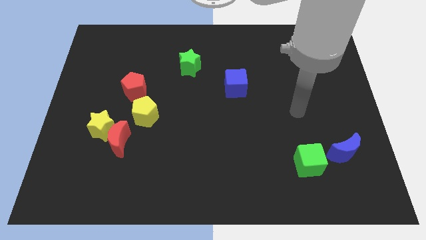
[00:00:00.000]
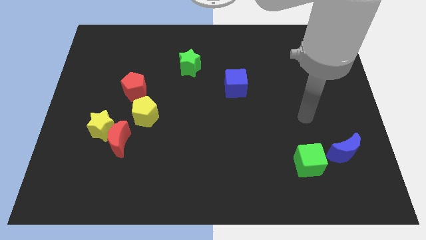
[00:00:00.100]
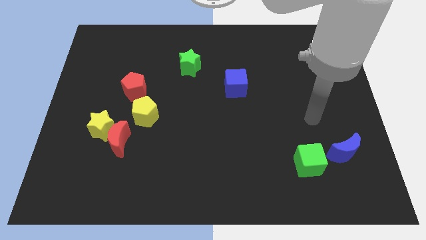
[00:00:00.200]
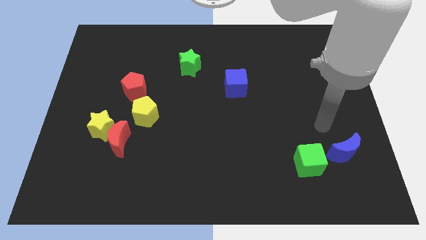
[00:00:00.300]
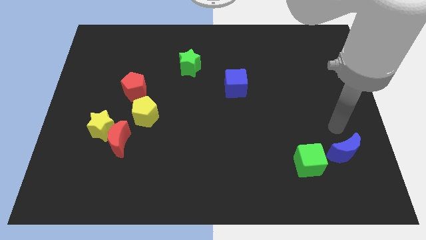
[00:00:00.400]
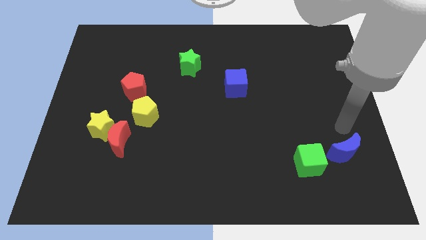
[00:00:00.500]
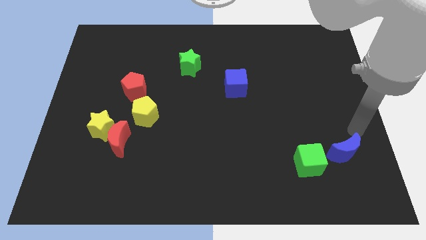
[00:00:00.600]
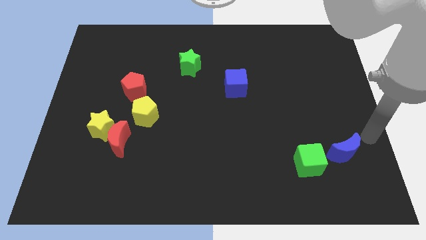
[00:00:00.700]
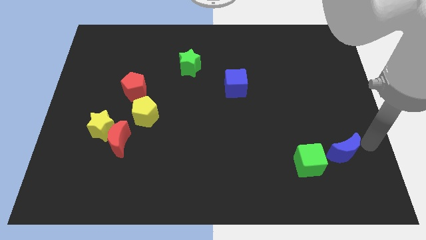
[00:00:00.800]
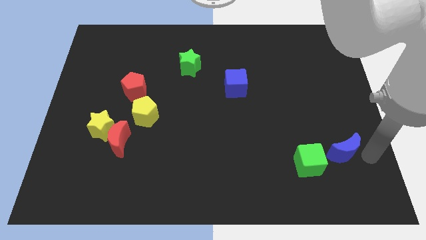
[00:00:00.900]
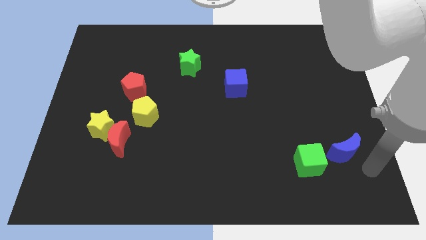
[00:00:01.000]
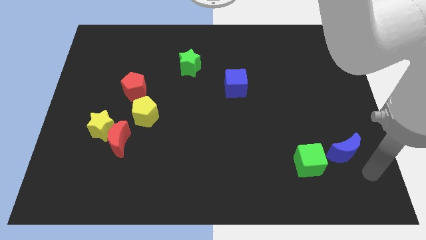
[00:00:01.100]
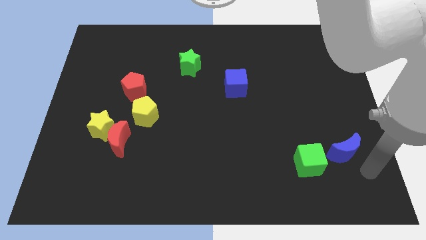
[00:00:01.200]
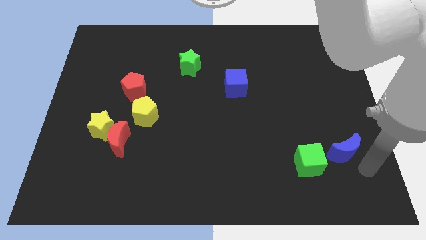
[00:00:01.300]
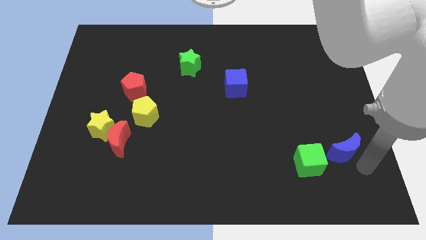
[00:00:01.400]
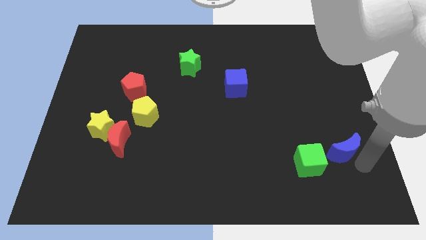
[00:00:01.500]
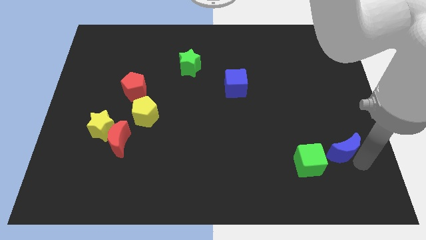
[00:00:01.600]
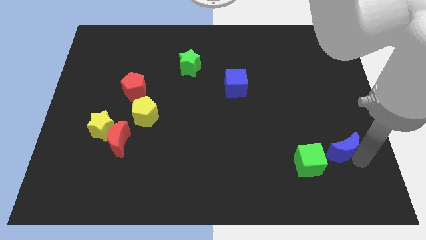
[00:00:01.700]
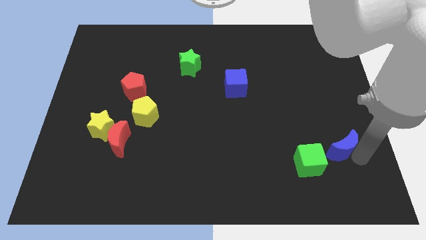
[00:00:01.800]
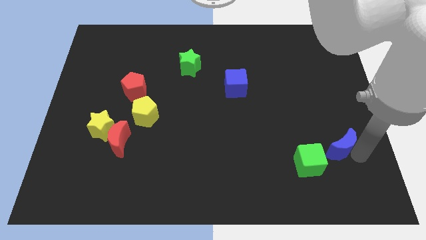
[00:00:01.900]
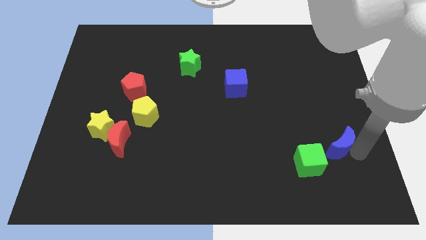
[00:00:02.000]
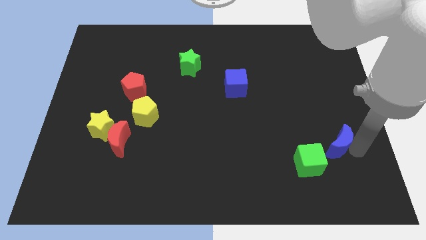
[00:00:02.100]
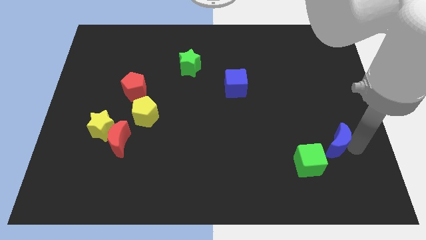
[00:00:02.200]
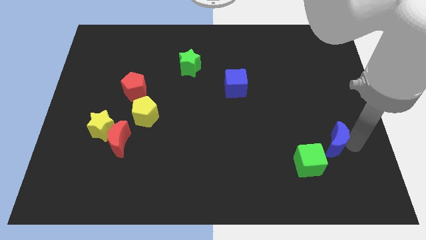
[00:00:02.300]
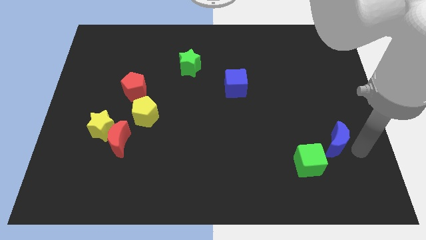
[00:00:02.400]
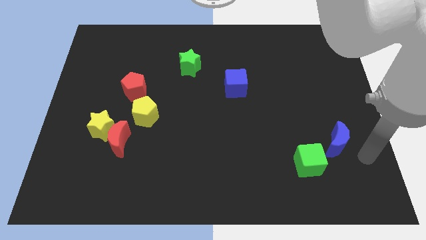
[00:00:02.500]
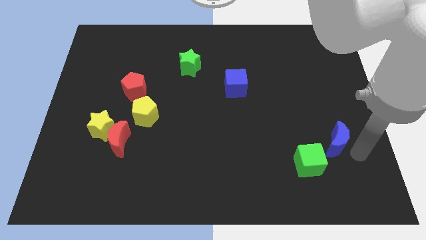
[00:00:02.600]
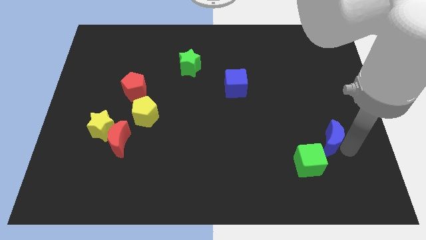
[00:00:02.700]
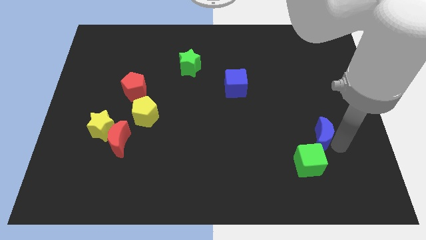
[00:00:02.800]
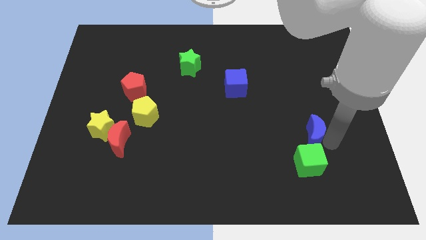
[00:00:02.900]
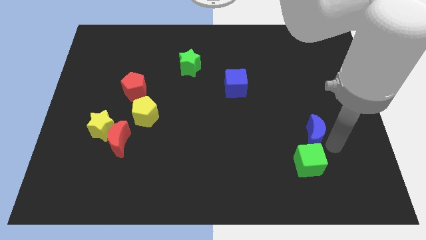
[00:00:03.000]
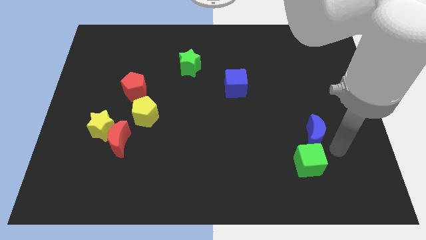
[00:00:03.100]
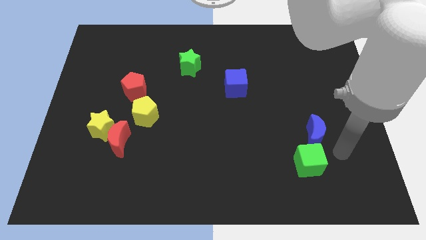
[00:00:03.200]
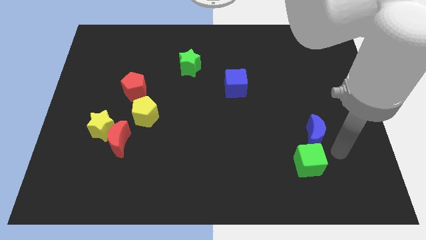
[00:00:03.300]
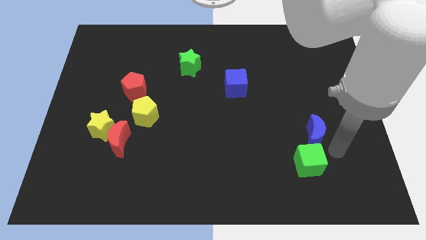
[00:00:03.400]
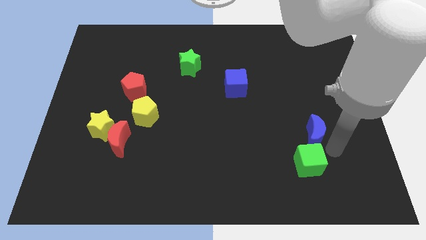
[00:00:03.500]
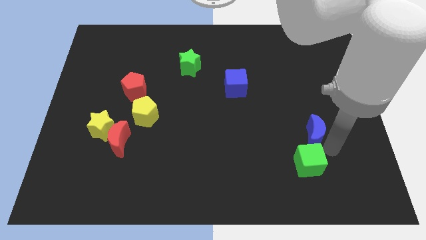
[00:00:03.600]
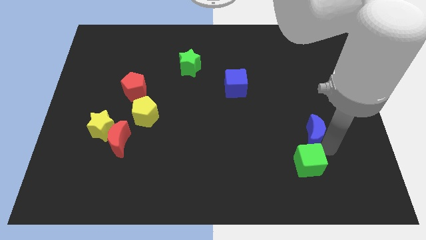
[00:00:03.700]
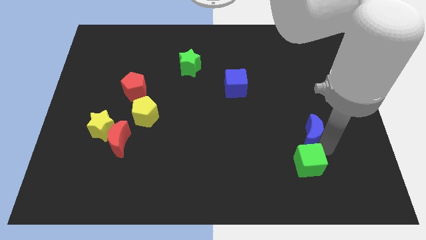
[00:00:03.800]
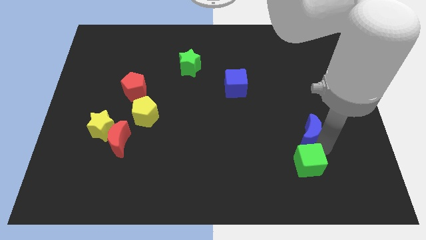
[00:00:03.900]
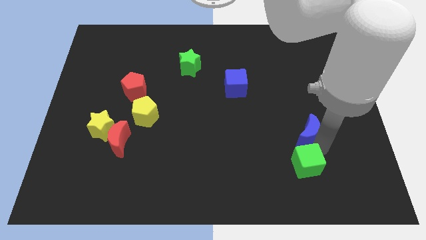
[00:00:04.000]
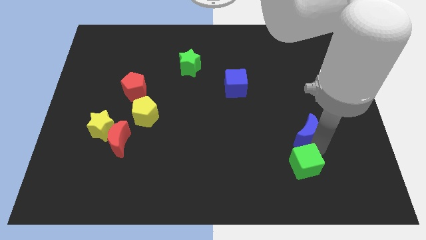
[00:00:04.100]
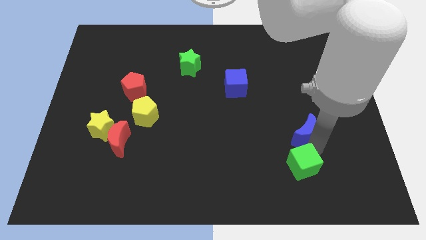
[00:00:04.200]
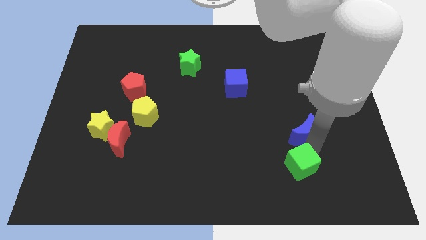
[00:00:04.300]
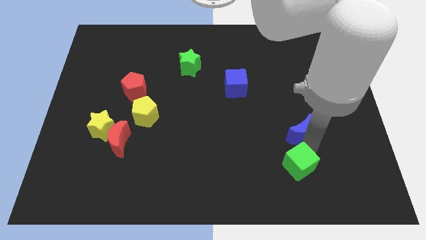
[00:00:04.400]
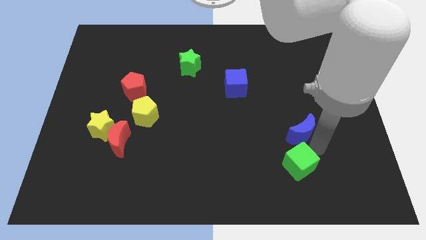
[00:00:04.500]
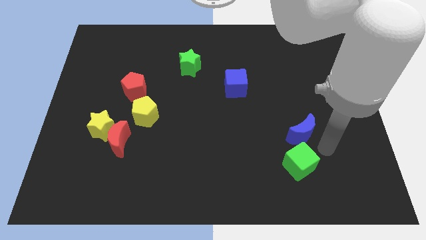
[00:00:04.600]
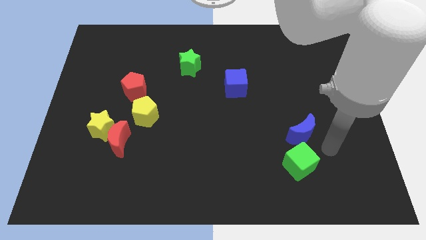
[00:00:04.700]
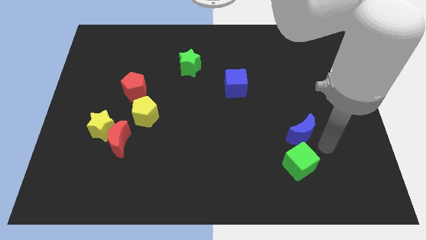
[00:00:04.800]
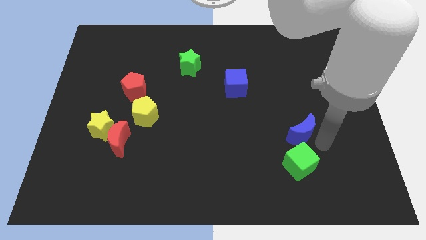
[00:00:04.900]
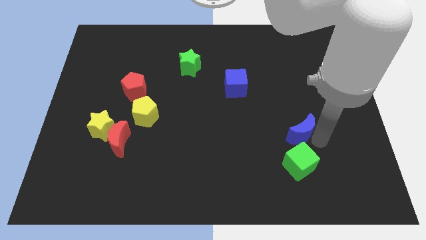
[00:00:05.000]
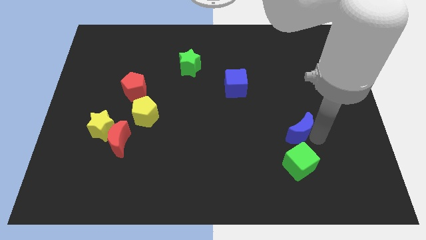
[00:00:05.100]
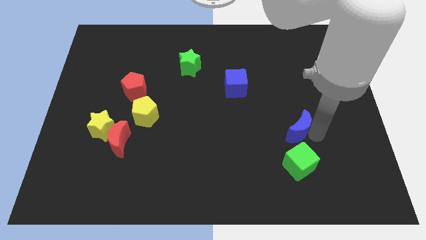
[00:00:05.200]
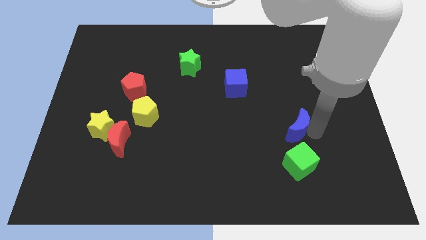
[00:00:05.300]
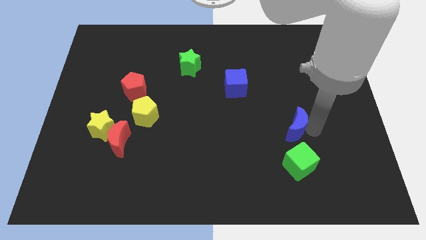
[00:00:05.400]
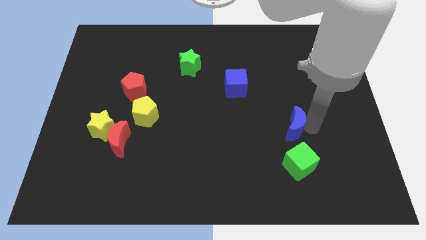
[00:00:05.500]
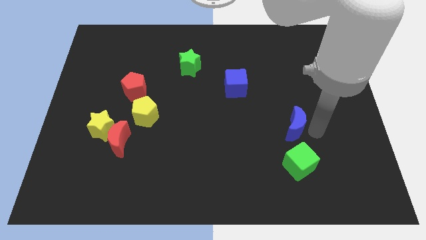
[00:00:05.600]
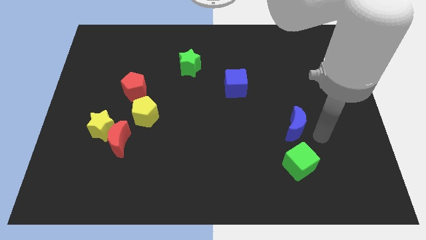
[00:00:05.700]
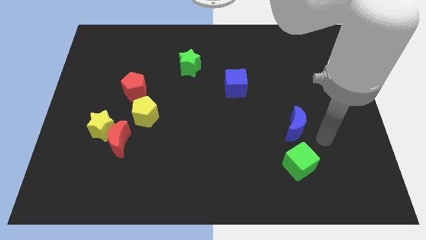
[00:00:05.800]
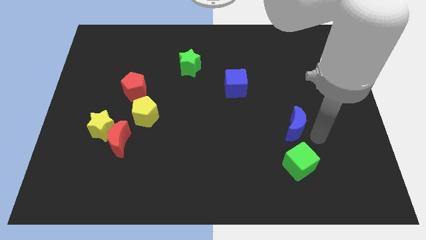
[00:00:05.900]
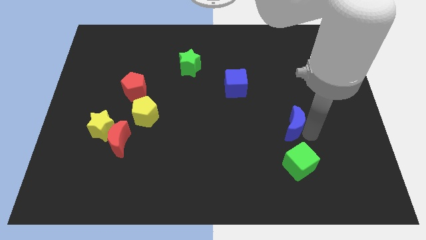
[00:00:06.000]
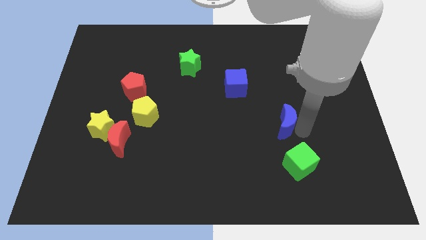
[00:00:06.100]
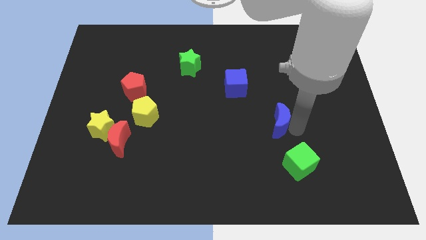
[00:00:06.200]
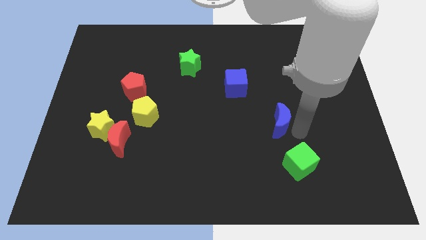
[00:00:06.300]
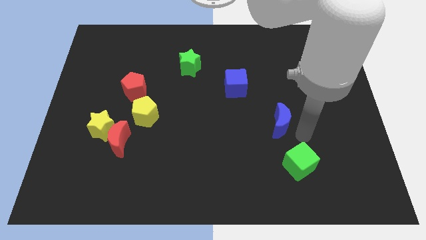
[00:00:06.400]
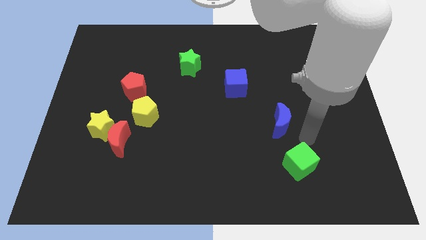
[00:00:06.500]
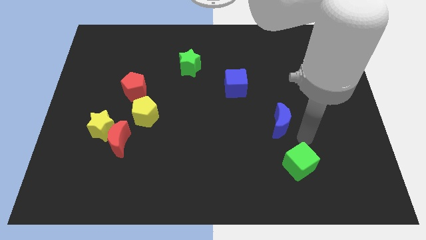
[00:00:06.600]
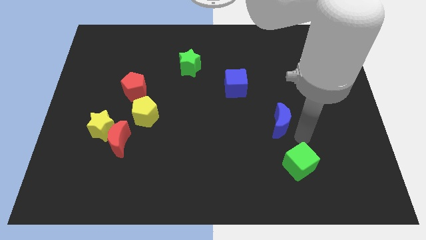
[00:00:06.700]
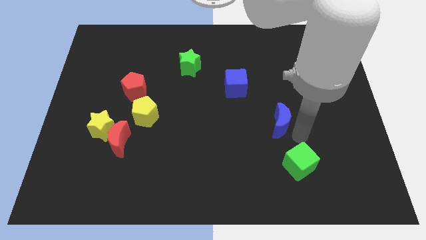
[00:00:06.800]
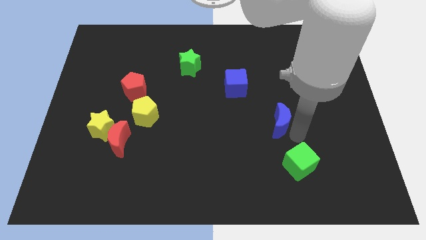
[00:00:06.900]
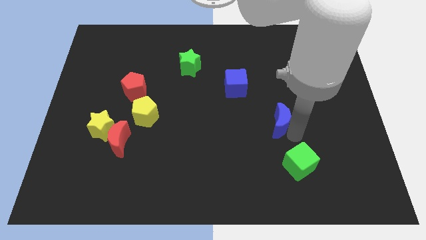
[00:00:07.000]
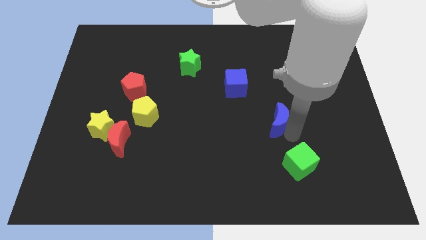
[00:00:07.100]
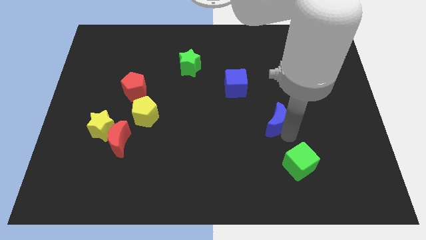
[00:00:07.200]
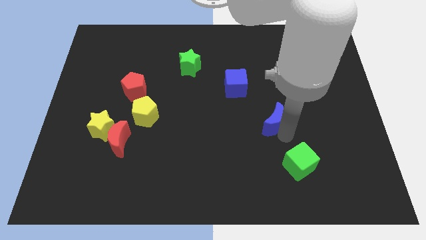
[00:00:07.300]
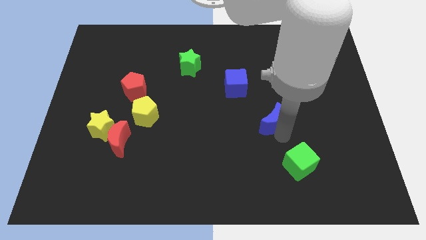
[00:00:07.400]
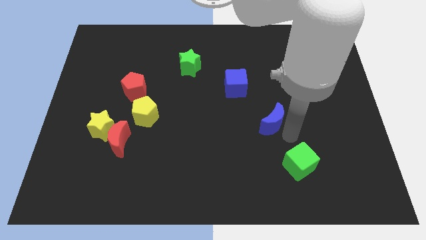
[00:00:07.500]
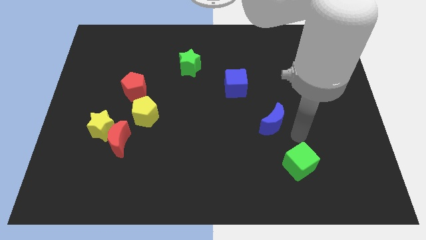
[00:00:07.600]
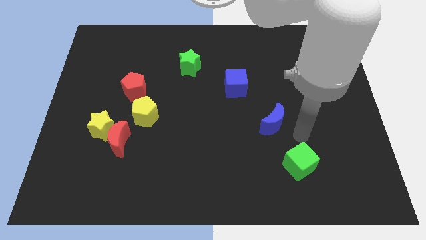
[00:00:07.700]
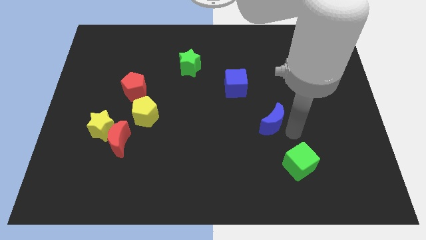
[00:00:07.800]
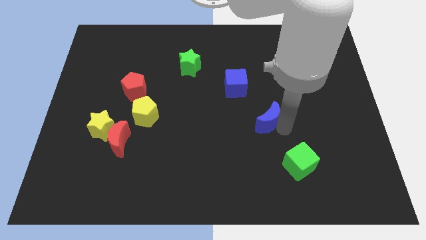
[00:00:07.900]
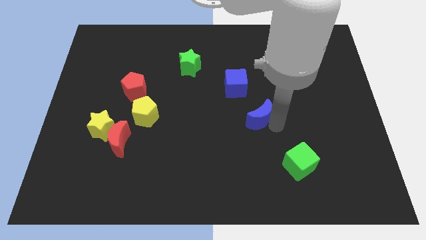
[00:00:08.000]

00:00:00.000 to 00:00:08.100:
slide the blue moon to the center
